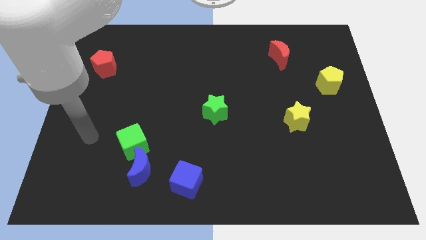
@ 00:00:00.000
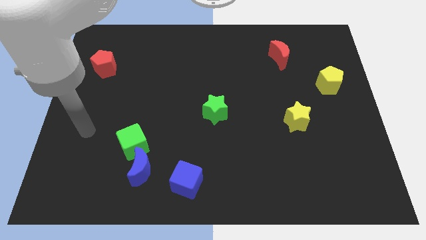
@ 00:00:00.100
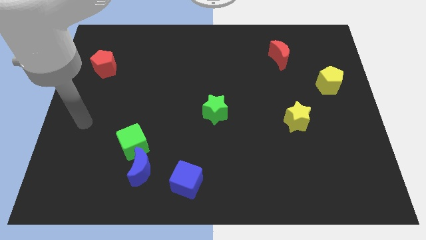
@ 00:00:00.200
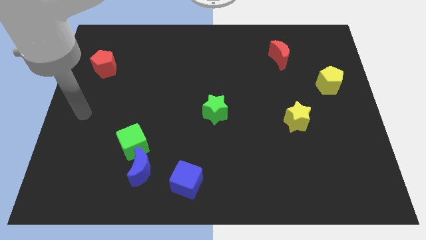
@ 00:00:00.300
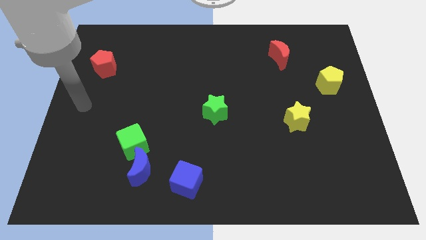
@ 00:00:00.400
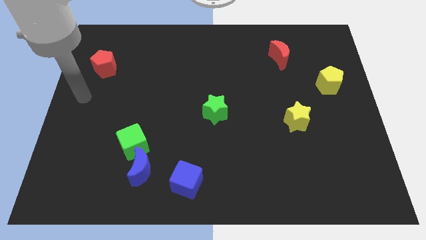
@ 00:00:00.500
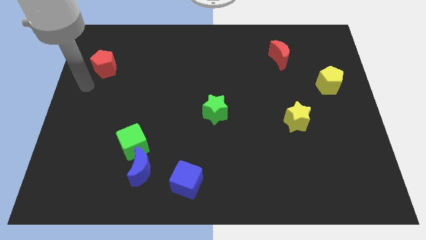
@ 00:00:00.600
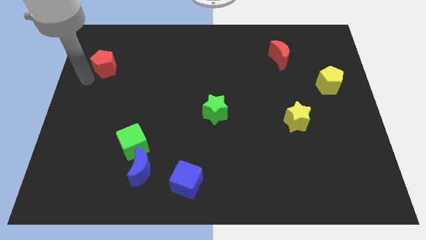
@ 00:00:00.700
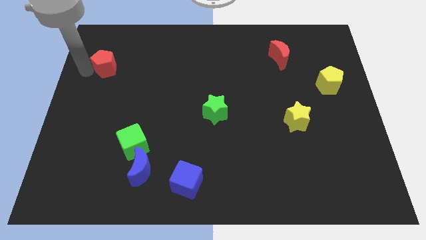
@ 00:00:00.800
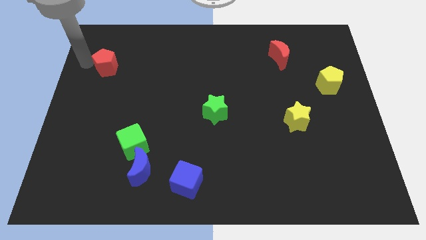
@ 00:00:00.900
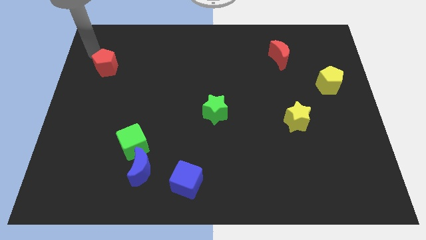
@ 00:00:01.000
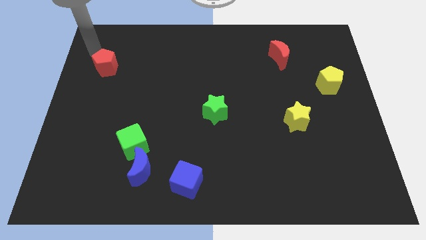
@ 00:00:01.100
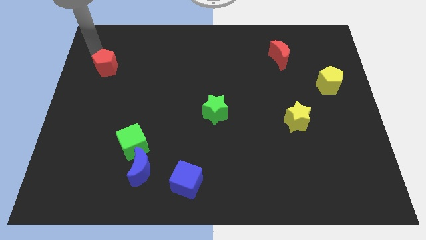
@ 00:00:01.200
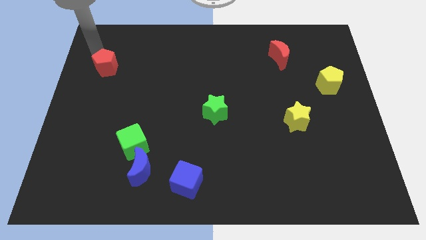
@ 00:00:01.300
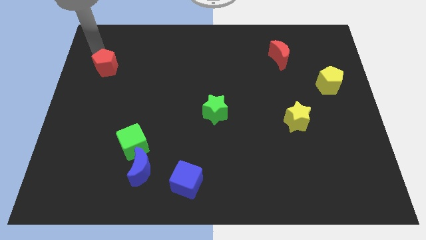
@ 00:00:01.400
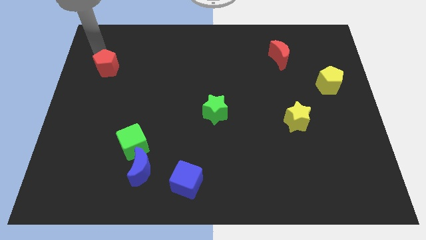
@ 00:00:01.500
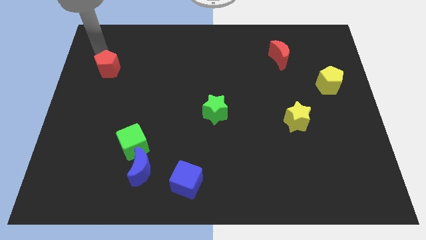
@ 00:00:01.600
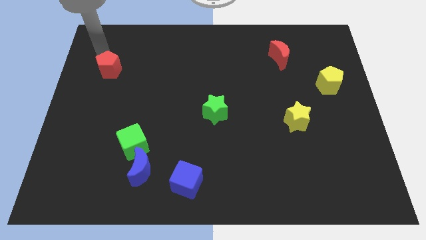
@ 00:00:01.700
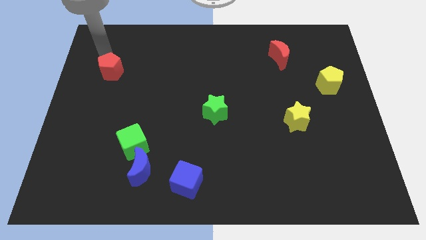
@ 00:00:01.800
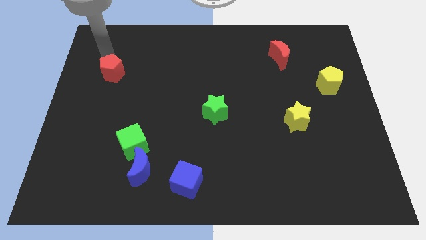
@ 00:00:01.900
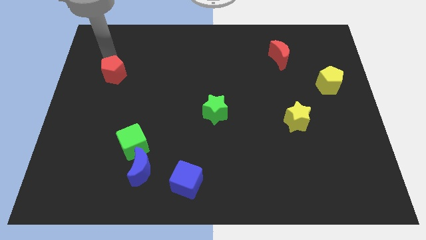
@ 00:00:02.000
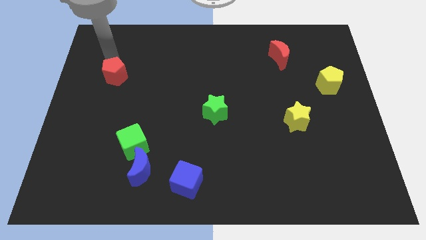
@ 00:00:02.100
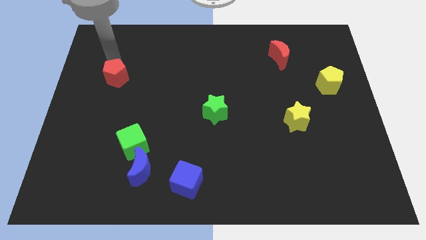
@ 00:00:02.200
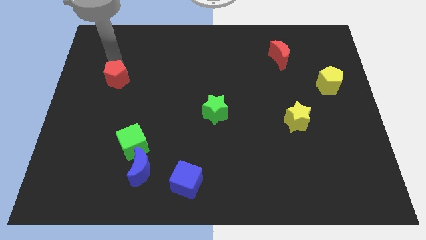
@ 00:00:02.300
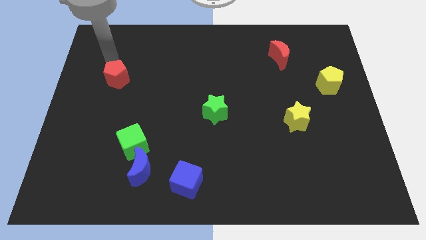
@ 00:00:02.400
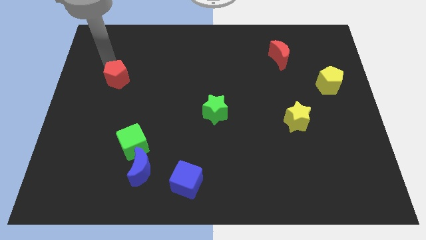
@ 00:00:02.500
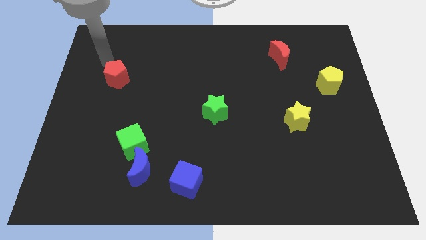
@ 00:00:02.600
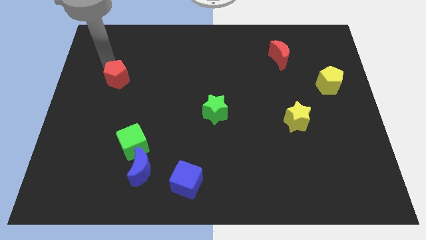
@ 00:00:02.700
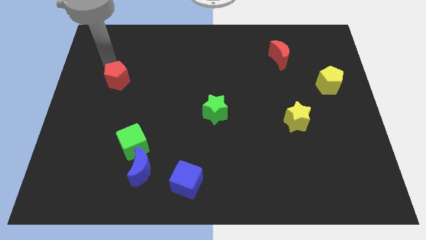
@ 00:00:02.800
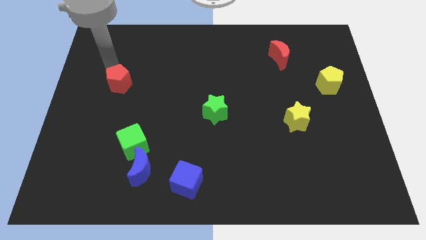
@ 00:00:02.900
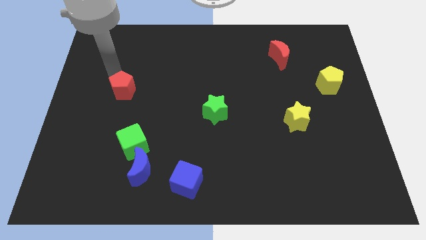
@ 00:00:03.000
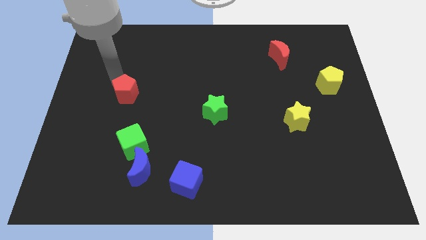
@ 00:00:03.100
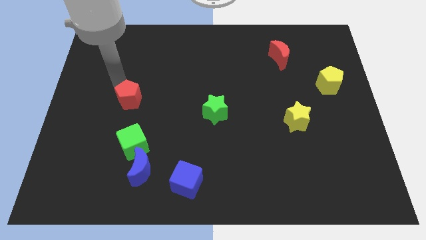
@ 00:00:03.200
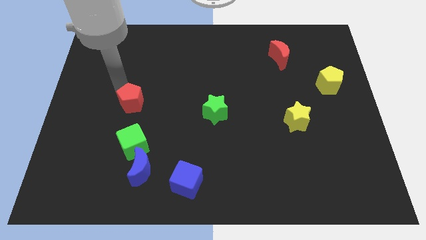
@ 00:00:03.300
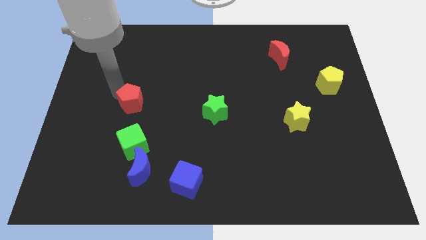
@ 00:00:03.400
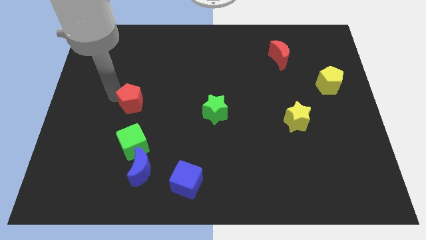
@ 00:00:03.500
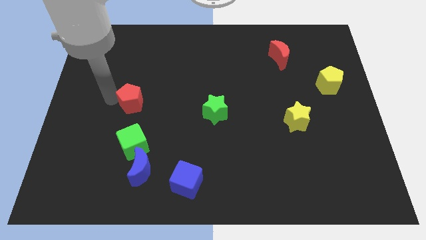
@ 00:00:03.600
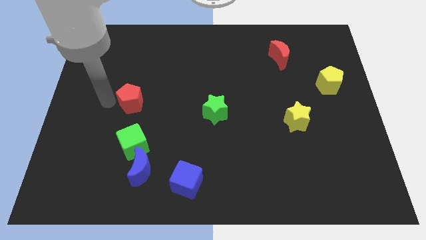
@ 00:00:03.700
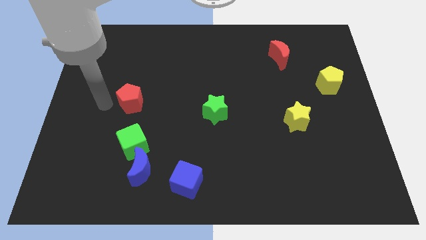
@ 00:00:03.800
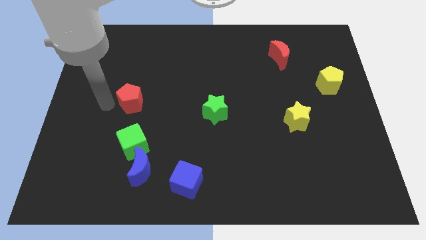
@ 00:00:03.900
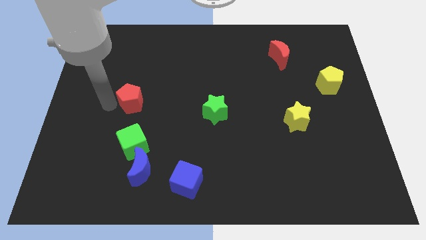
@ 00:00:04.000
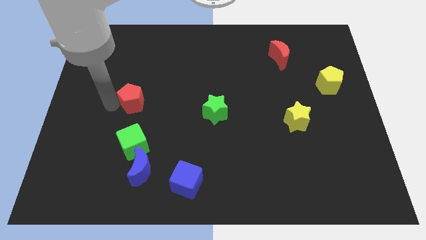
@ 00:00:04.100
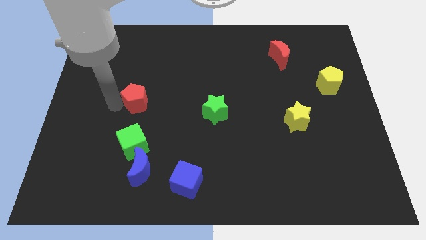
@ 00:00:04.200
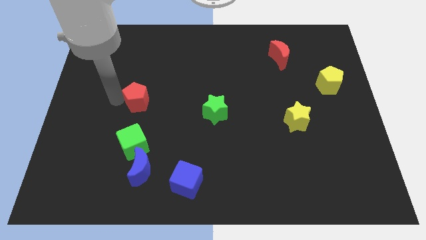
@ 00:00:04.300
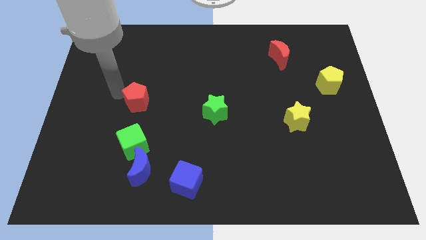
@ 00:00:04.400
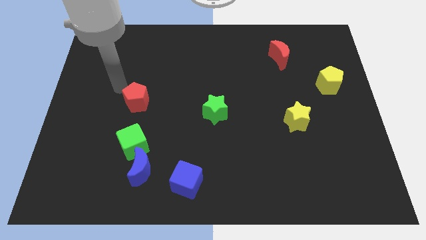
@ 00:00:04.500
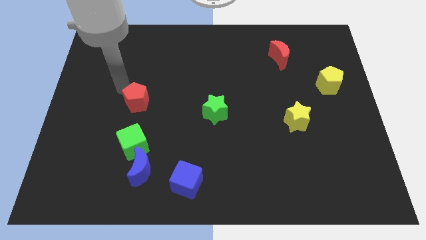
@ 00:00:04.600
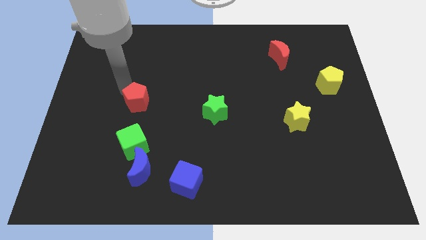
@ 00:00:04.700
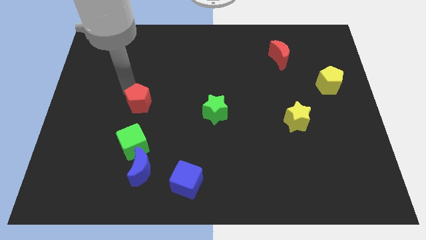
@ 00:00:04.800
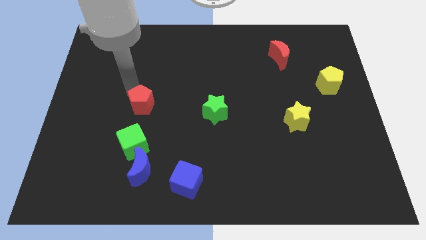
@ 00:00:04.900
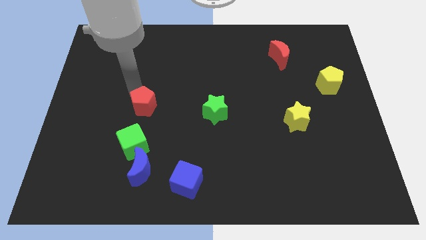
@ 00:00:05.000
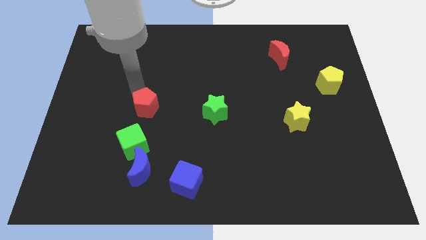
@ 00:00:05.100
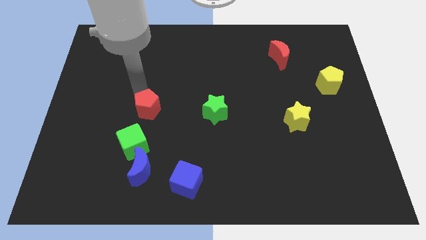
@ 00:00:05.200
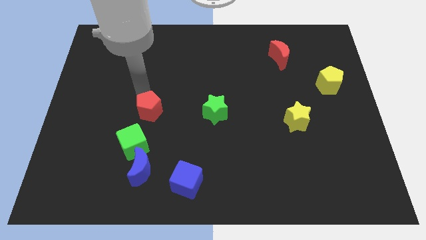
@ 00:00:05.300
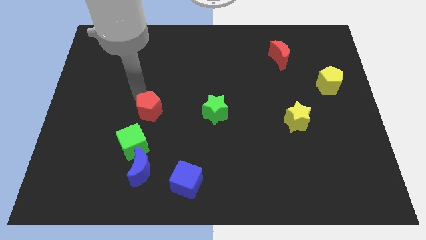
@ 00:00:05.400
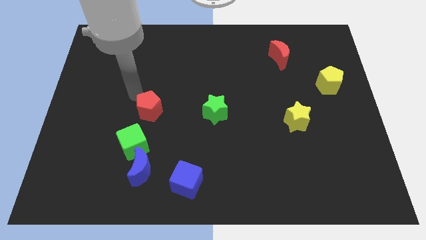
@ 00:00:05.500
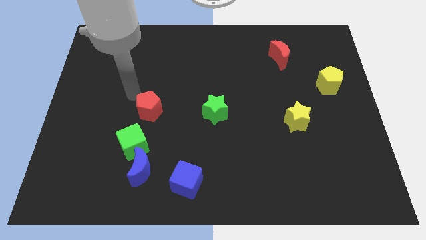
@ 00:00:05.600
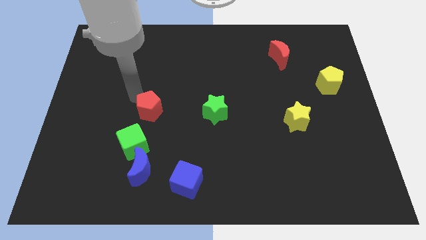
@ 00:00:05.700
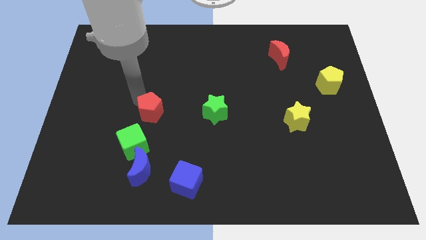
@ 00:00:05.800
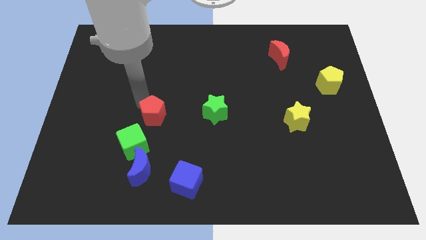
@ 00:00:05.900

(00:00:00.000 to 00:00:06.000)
move the red pentagon down and then right

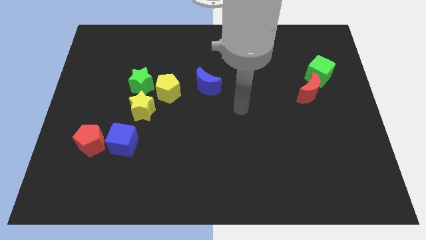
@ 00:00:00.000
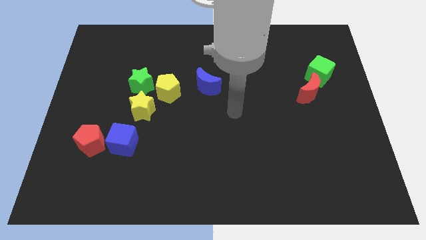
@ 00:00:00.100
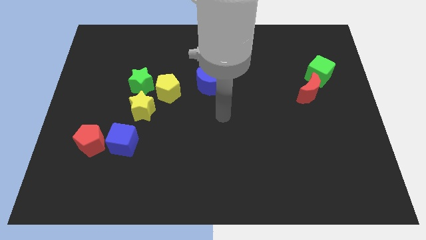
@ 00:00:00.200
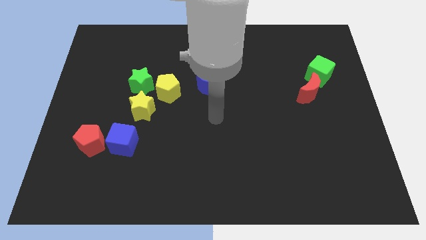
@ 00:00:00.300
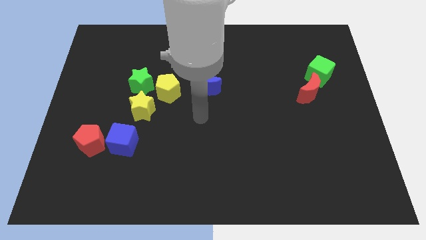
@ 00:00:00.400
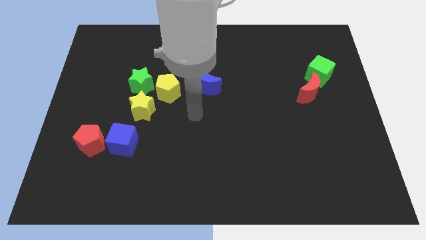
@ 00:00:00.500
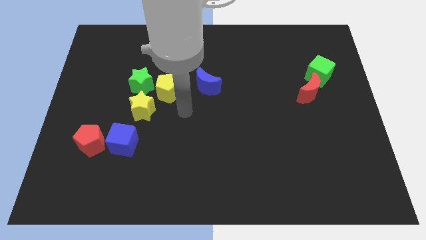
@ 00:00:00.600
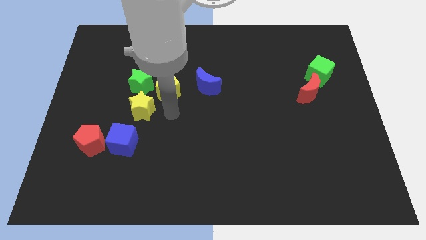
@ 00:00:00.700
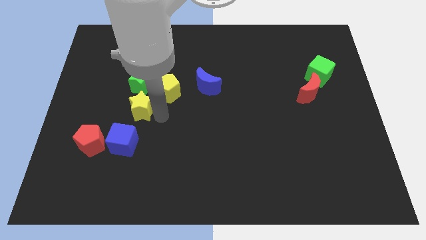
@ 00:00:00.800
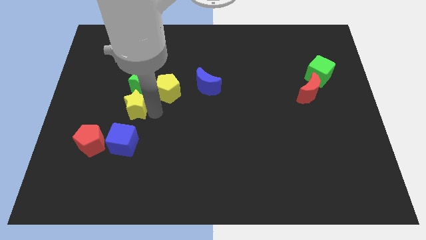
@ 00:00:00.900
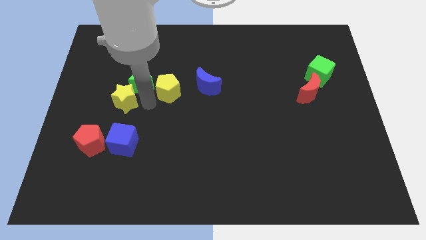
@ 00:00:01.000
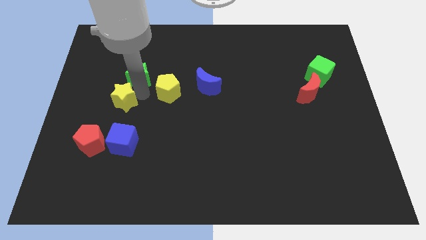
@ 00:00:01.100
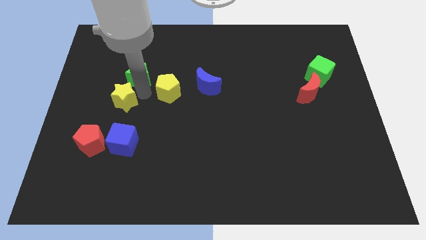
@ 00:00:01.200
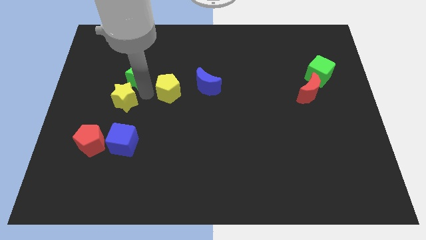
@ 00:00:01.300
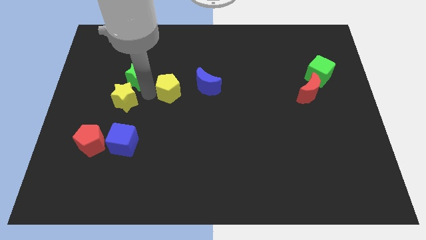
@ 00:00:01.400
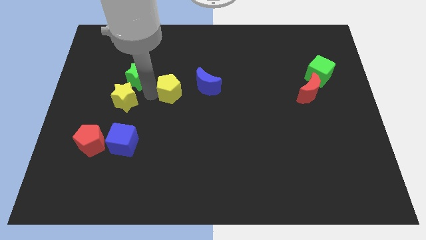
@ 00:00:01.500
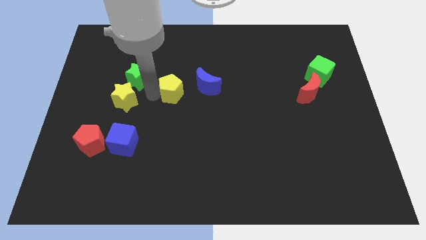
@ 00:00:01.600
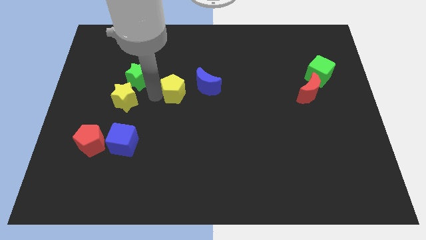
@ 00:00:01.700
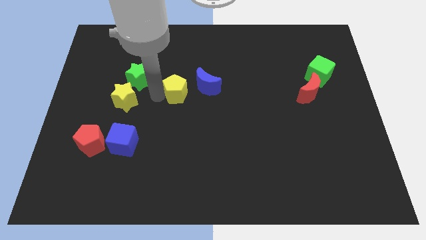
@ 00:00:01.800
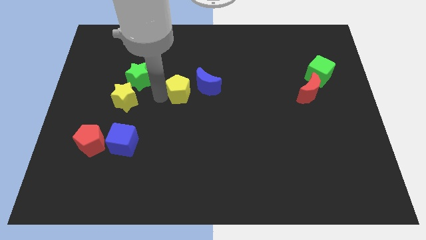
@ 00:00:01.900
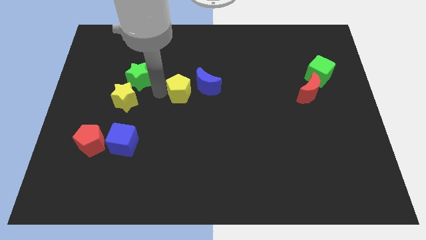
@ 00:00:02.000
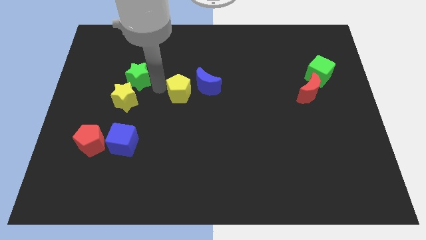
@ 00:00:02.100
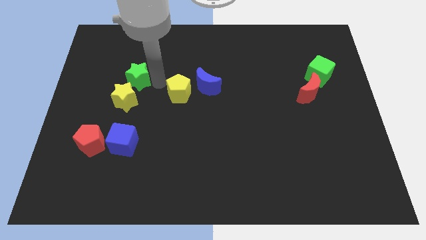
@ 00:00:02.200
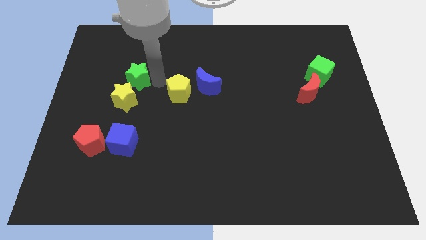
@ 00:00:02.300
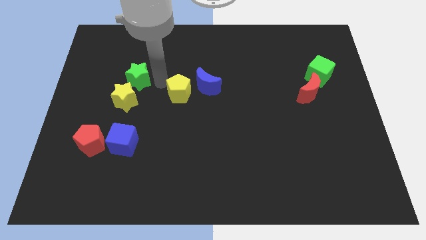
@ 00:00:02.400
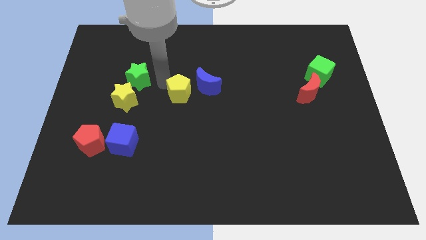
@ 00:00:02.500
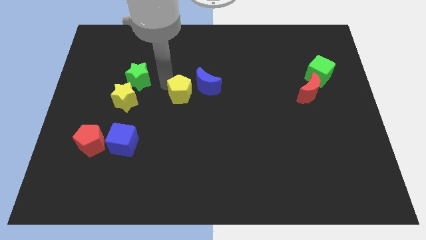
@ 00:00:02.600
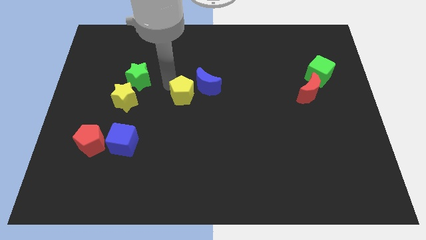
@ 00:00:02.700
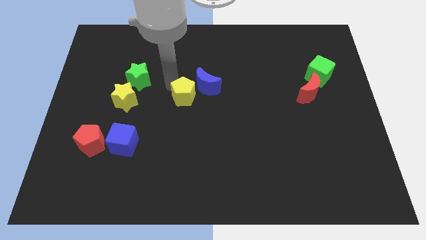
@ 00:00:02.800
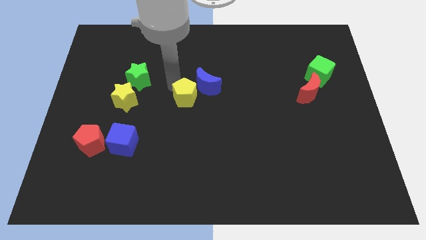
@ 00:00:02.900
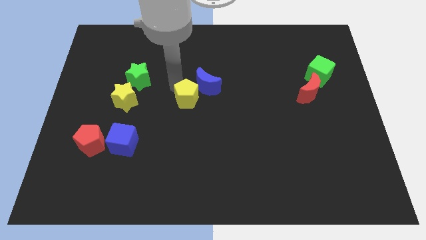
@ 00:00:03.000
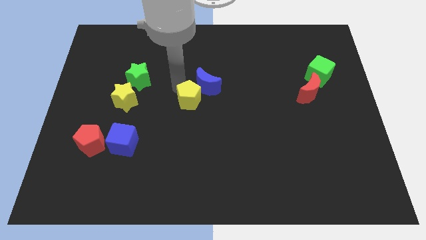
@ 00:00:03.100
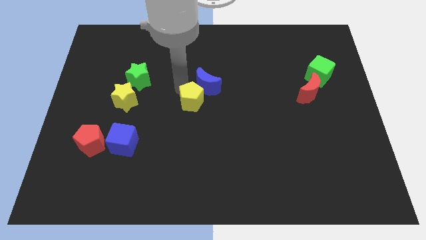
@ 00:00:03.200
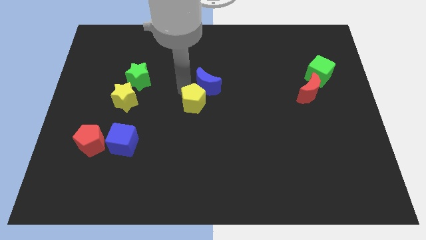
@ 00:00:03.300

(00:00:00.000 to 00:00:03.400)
slightly move the yellow pentagon downwards and to the right
